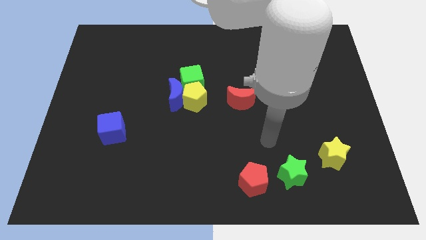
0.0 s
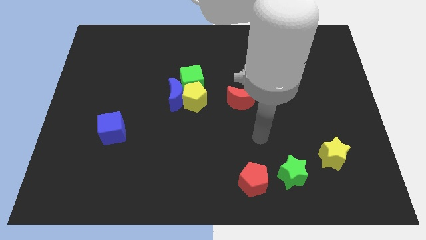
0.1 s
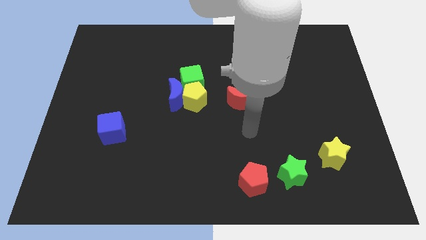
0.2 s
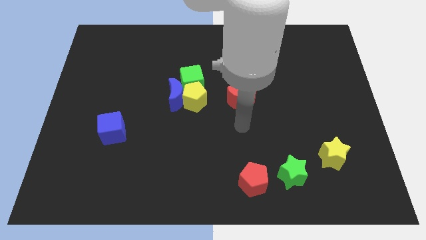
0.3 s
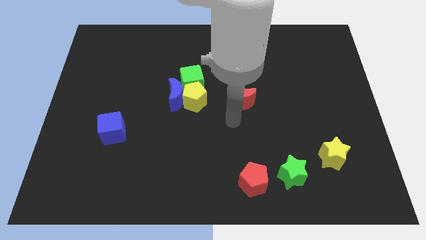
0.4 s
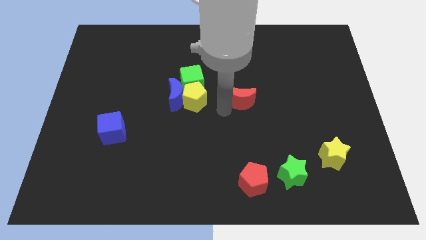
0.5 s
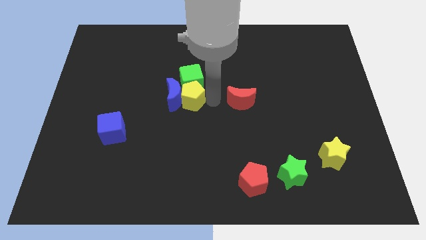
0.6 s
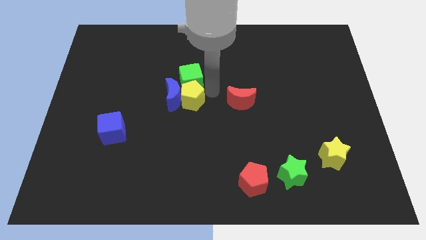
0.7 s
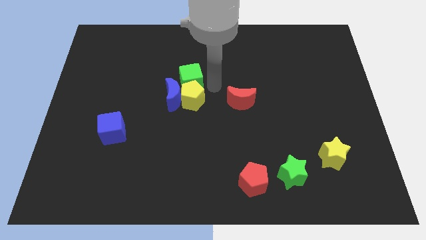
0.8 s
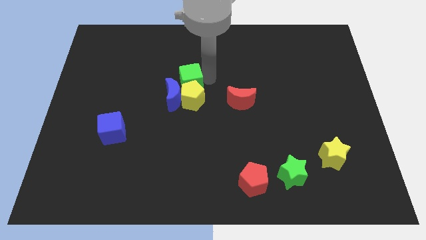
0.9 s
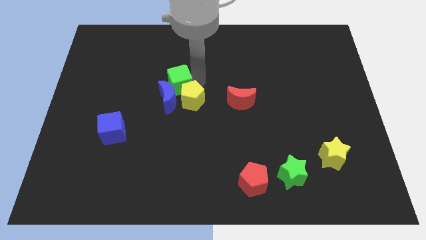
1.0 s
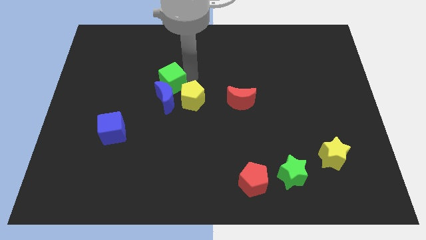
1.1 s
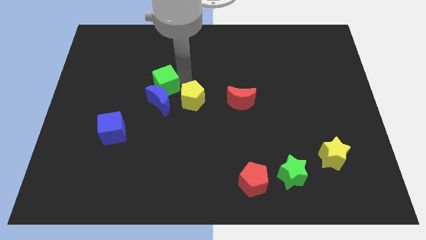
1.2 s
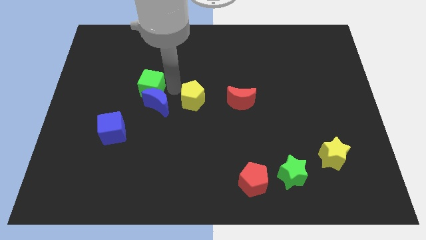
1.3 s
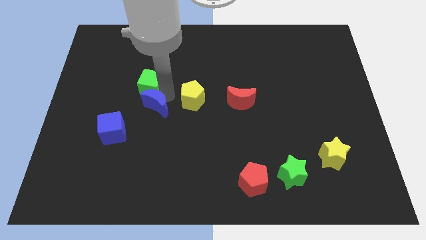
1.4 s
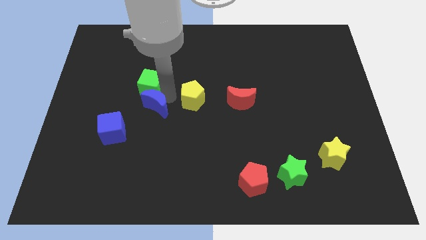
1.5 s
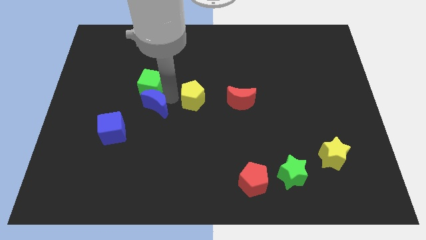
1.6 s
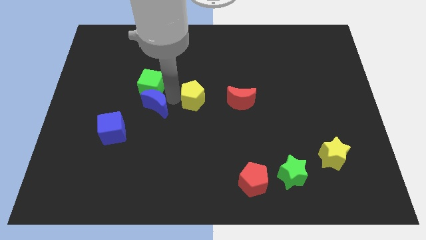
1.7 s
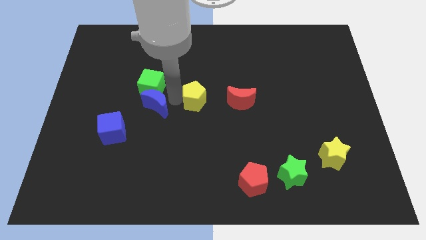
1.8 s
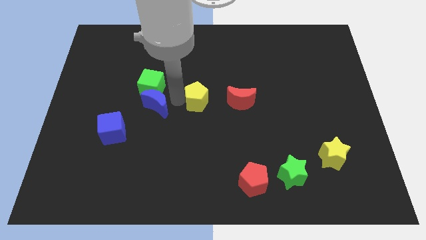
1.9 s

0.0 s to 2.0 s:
move the yellow pentagon away from the blue moon and green cube

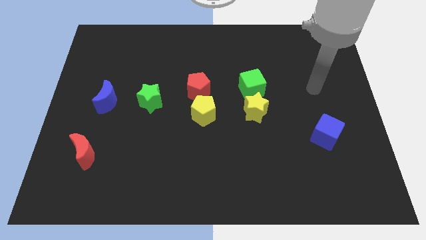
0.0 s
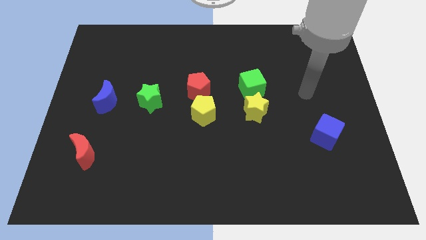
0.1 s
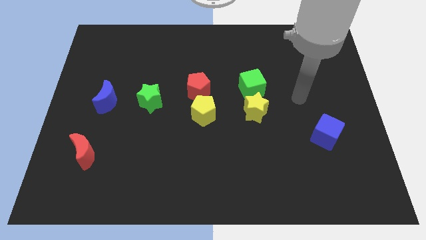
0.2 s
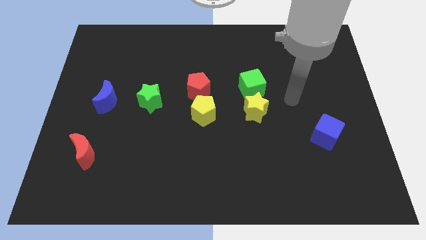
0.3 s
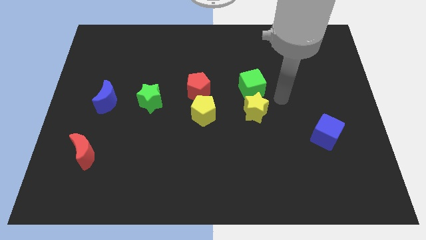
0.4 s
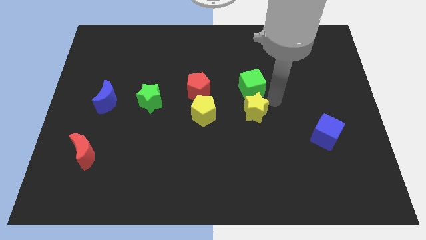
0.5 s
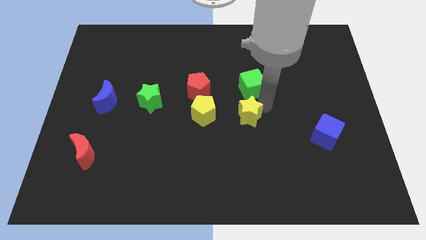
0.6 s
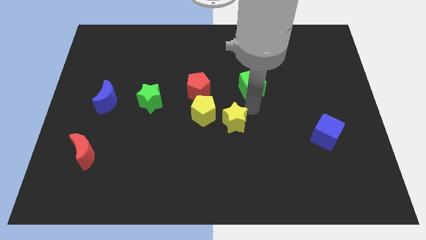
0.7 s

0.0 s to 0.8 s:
separate the green cube from the yellow star

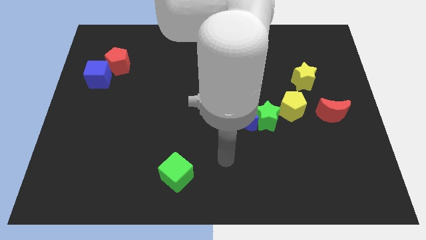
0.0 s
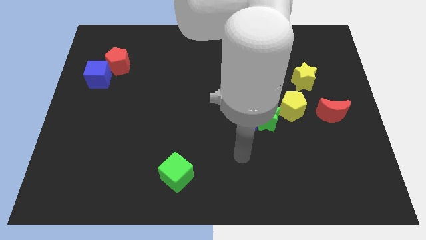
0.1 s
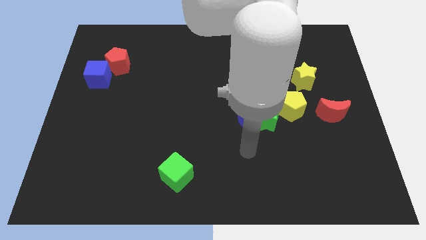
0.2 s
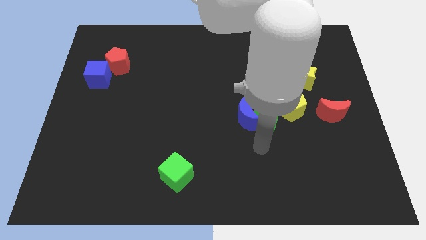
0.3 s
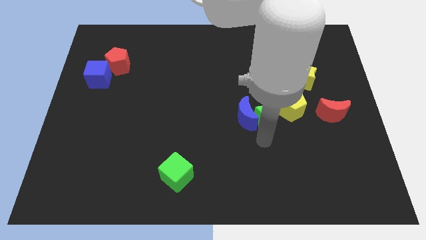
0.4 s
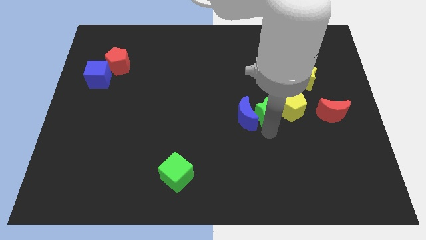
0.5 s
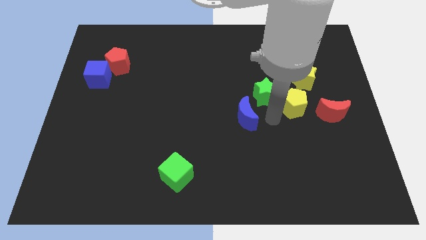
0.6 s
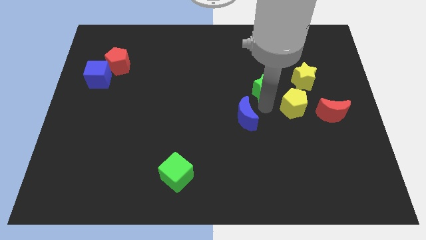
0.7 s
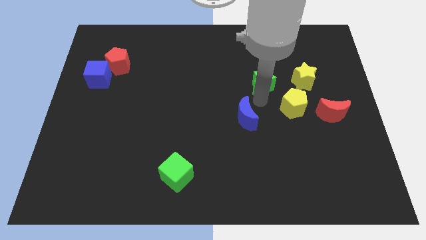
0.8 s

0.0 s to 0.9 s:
separate the blue moon from the green star

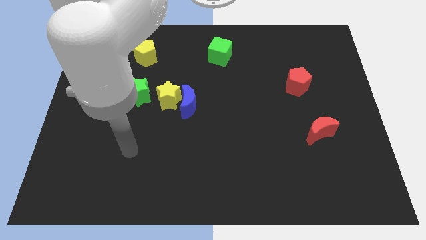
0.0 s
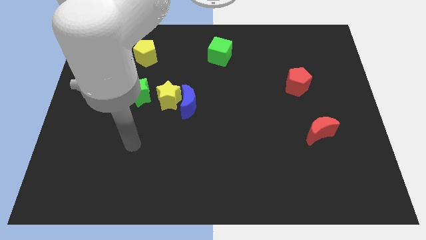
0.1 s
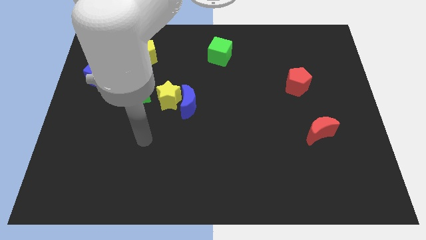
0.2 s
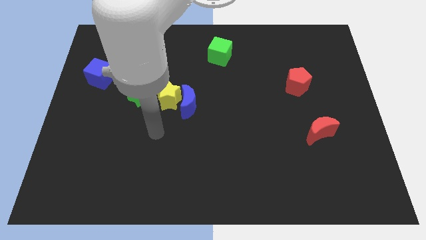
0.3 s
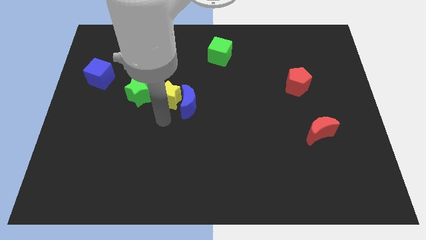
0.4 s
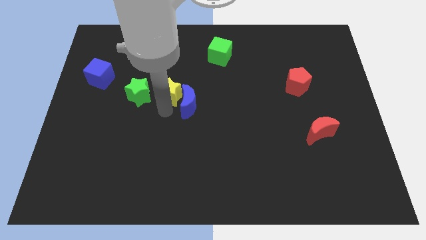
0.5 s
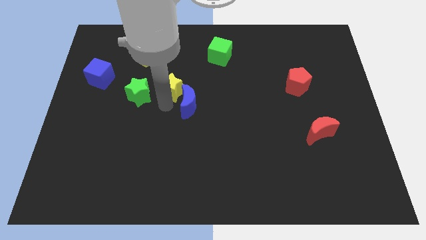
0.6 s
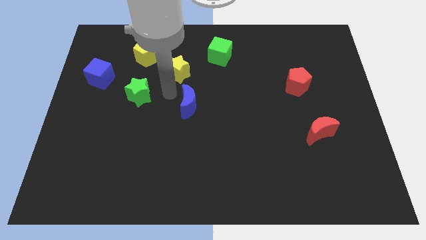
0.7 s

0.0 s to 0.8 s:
pull the blue moon apart from the yellow star

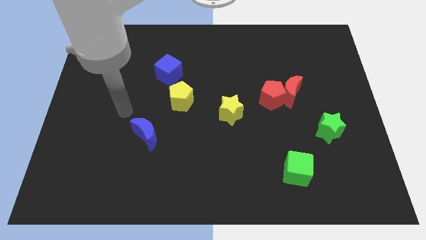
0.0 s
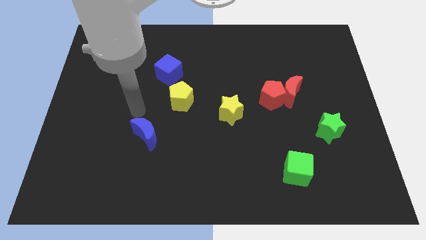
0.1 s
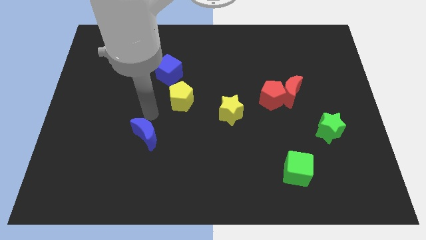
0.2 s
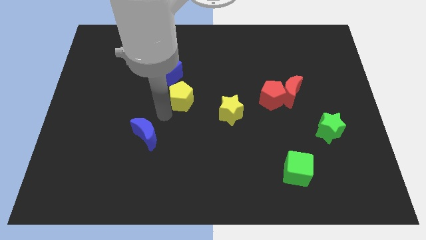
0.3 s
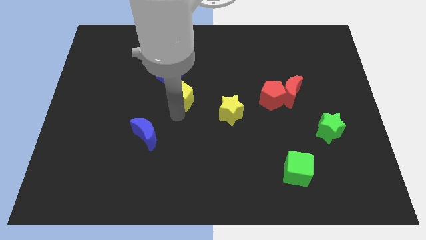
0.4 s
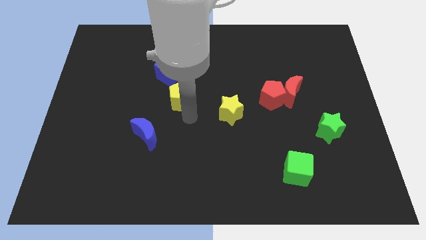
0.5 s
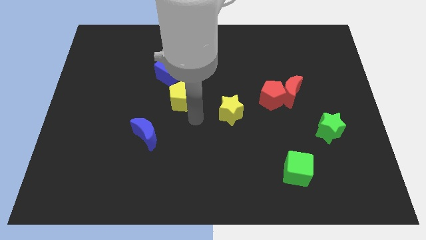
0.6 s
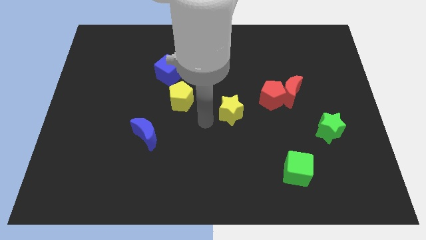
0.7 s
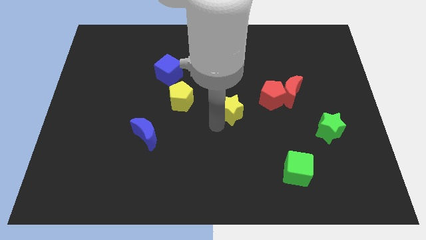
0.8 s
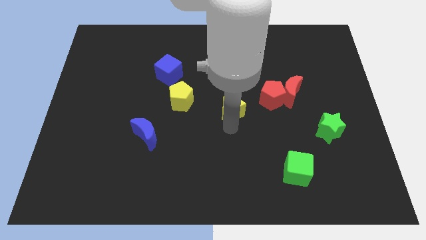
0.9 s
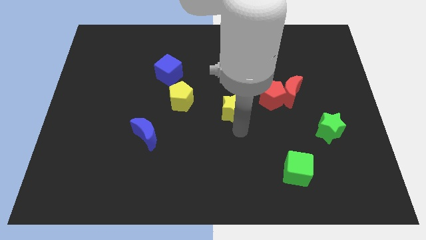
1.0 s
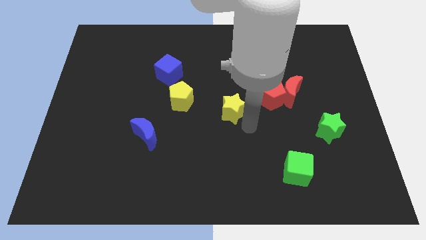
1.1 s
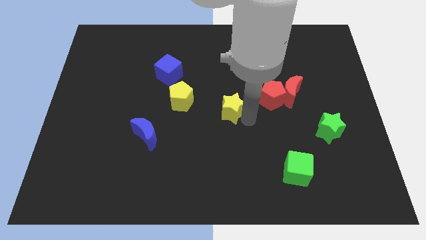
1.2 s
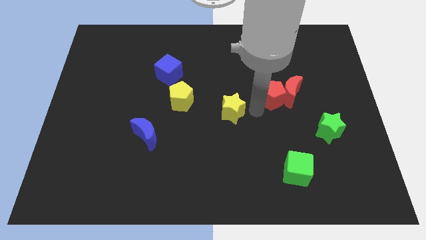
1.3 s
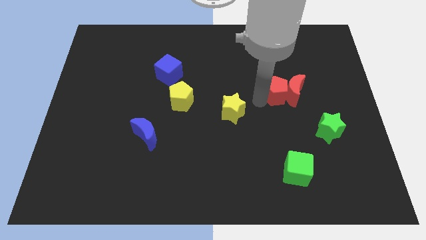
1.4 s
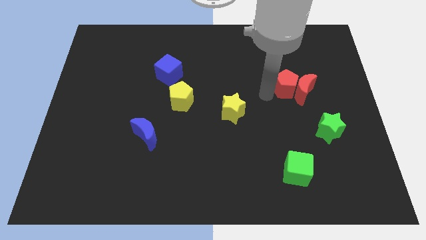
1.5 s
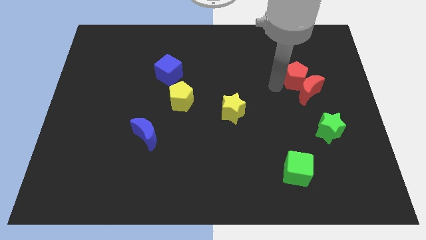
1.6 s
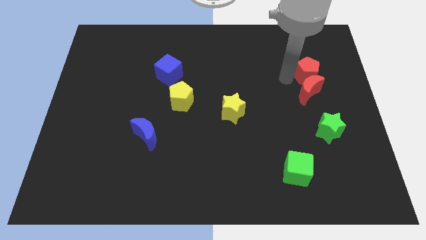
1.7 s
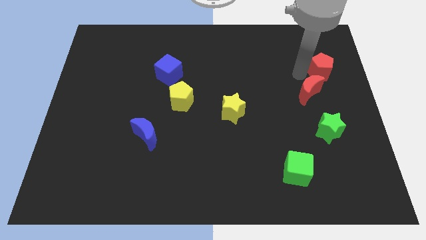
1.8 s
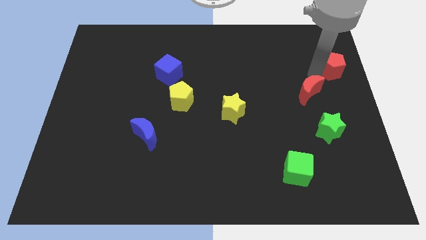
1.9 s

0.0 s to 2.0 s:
pull the red moon apart from the red pentagon

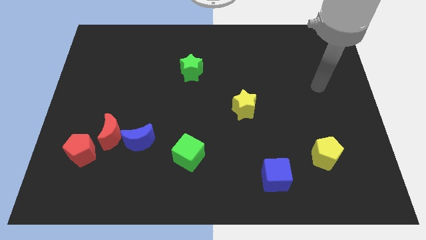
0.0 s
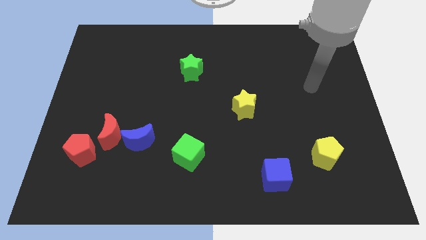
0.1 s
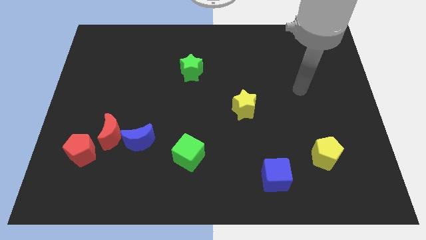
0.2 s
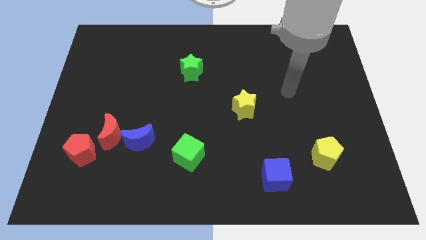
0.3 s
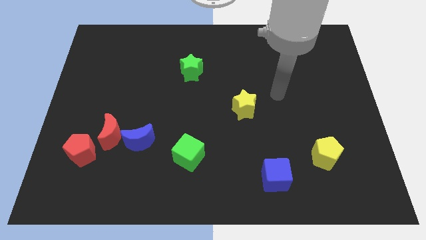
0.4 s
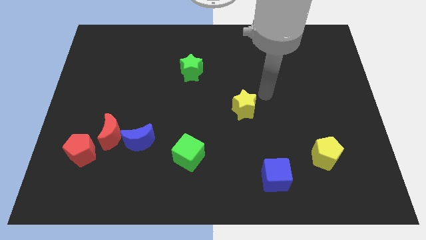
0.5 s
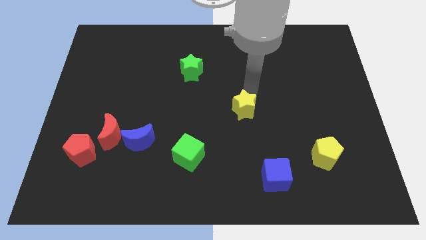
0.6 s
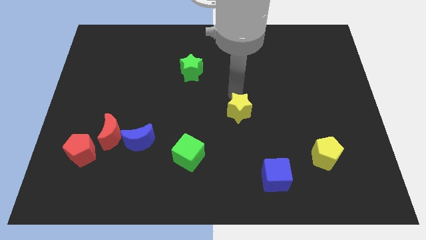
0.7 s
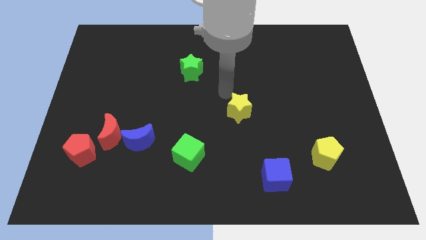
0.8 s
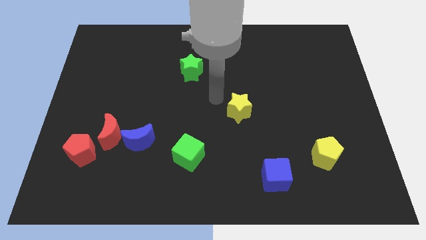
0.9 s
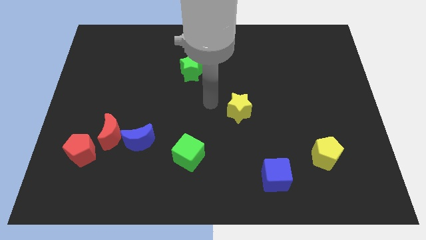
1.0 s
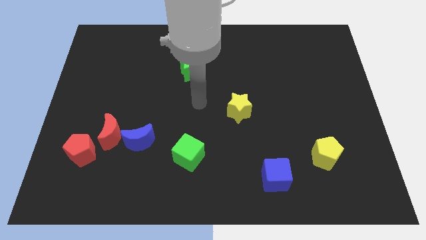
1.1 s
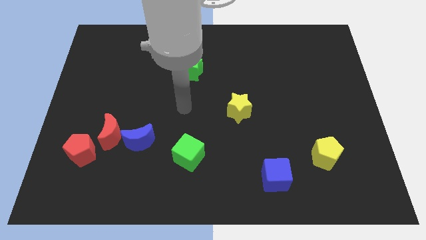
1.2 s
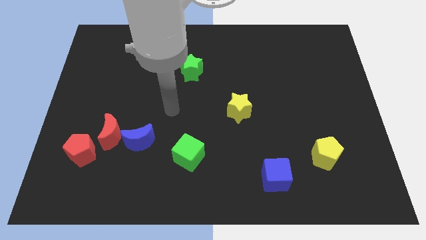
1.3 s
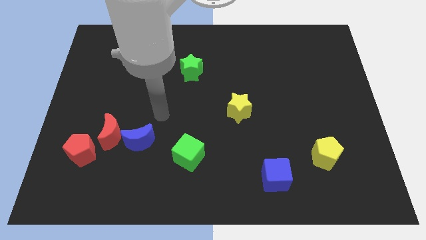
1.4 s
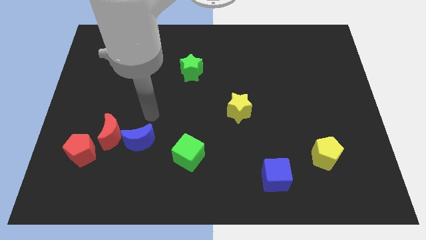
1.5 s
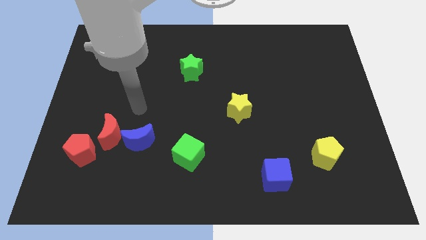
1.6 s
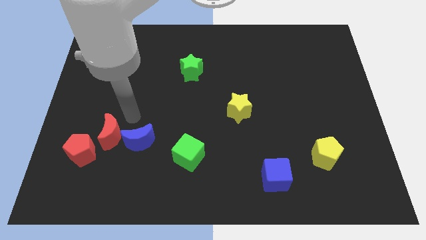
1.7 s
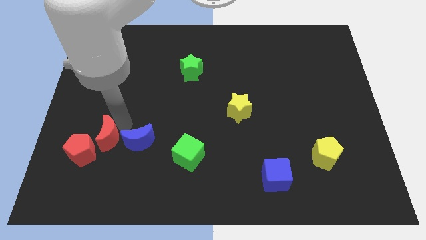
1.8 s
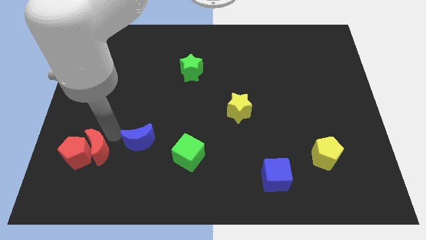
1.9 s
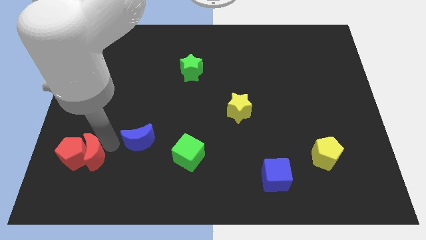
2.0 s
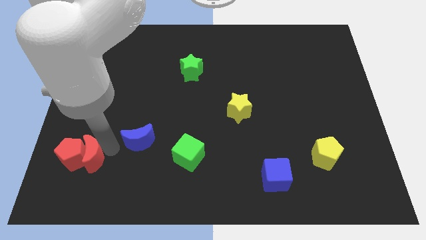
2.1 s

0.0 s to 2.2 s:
move the blue moon away from the red moon

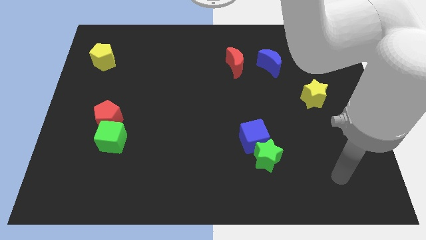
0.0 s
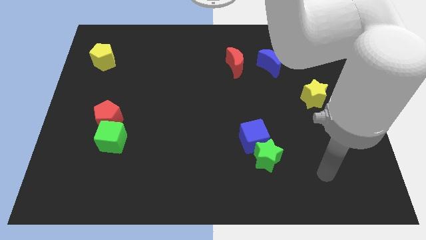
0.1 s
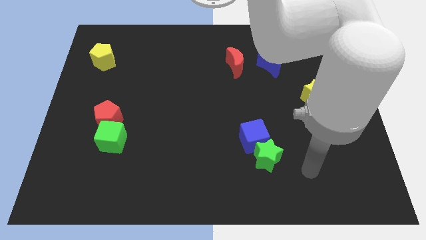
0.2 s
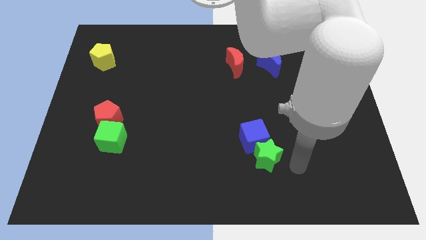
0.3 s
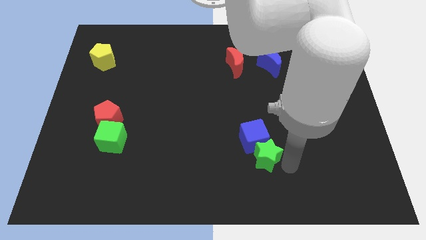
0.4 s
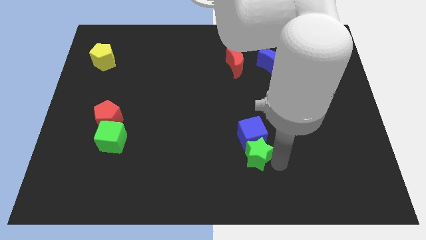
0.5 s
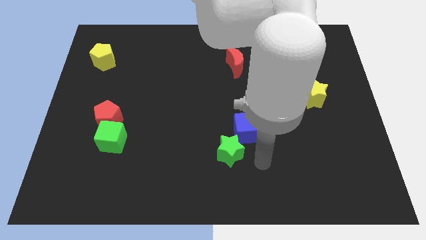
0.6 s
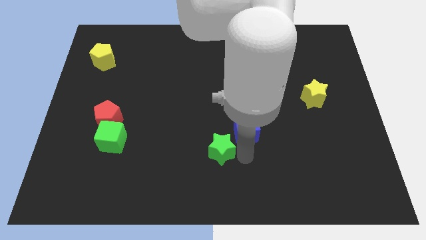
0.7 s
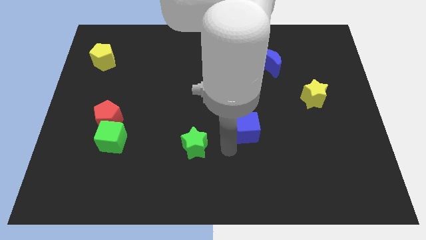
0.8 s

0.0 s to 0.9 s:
separate the blue cube from the green star
